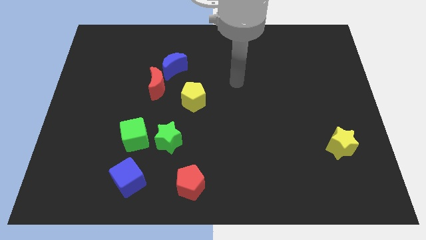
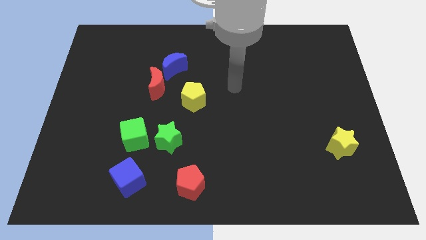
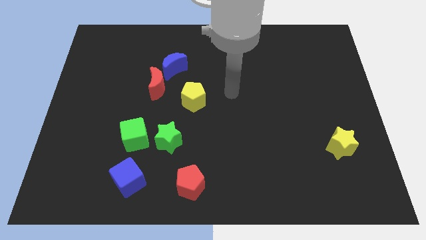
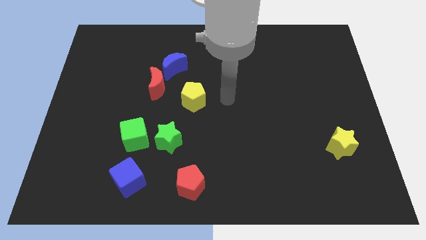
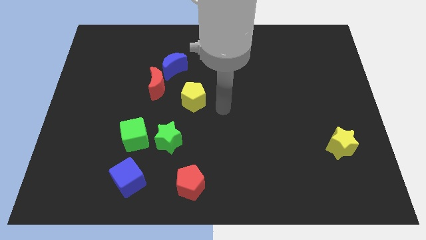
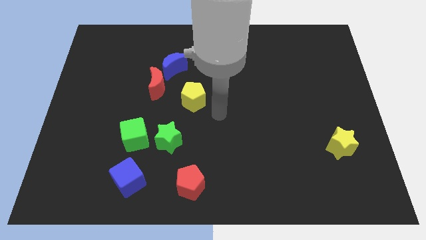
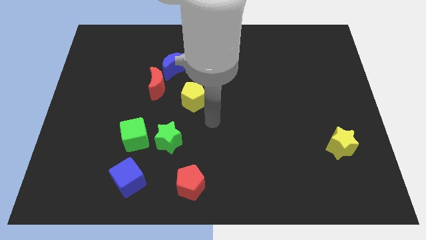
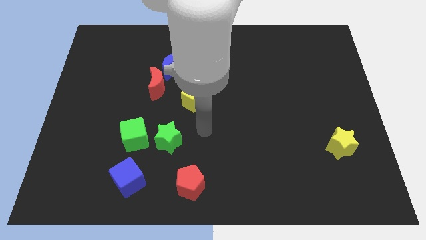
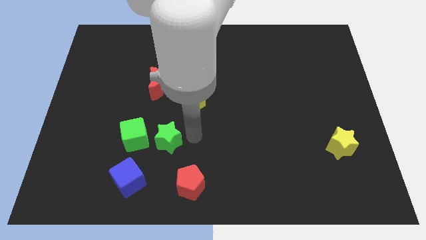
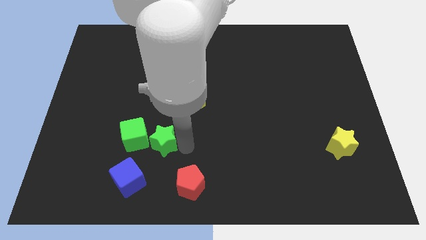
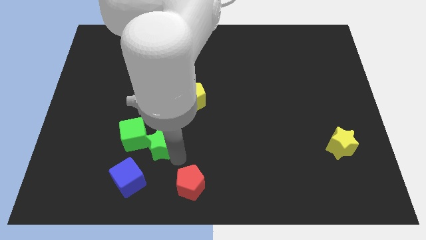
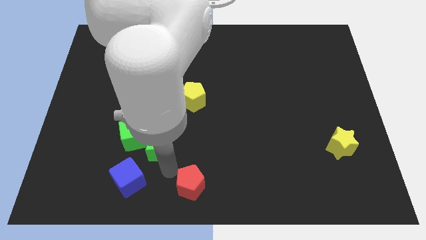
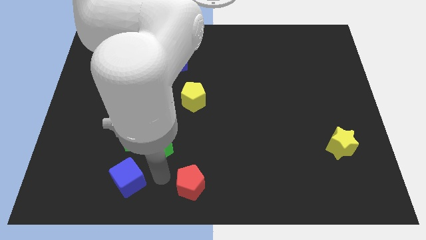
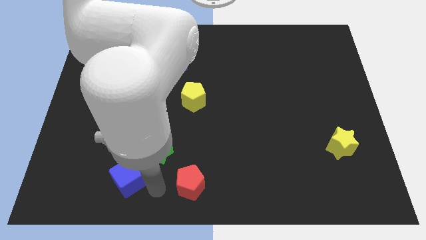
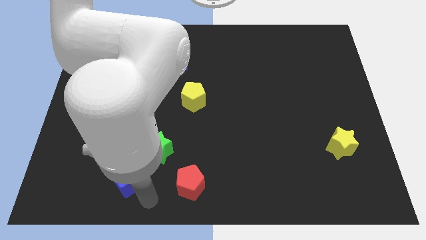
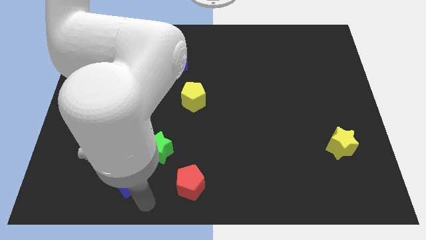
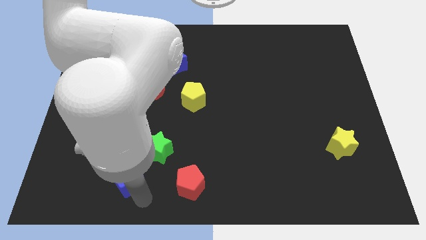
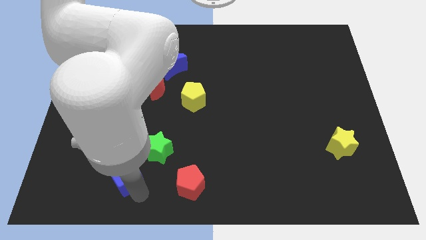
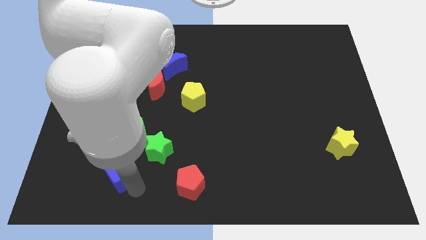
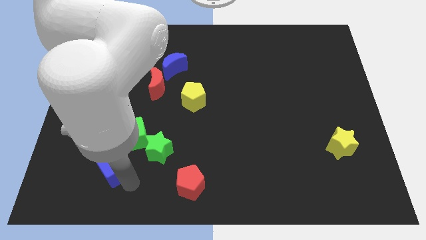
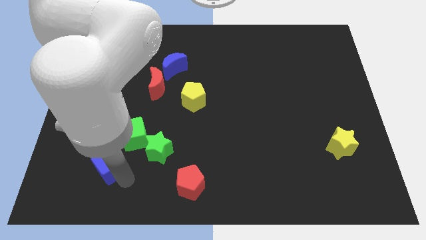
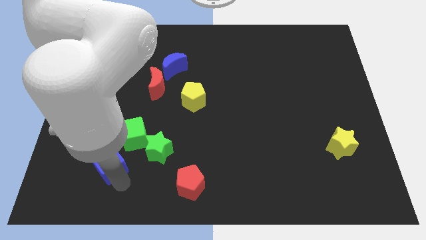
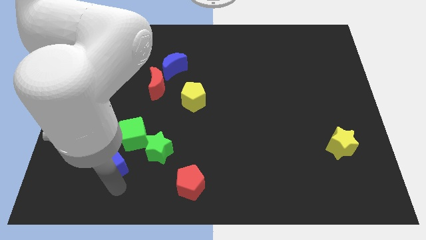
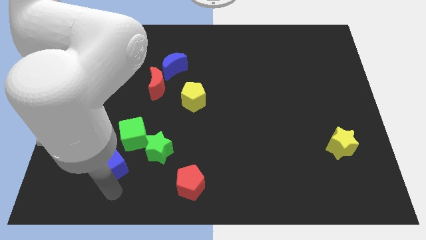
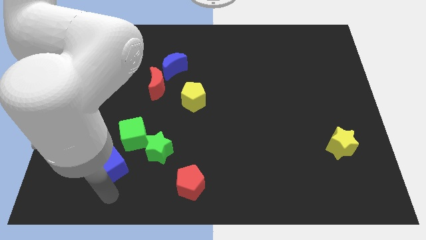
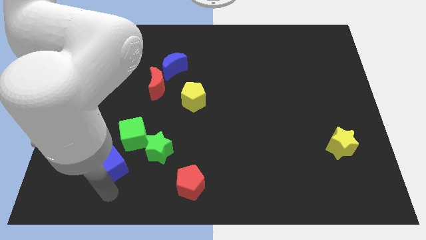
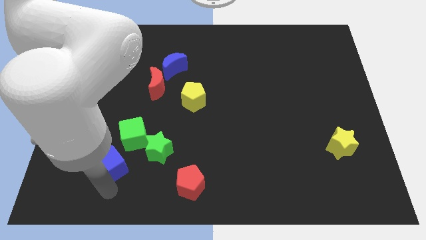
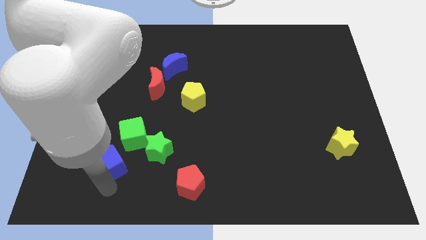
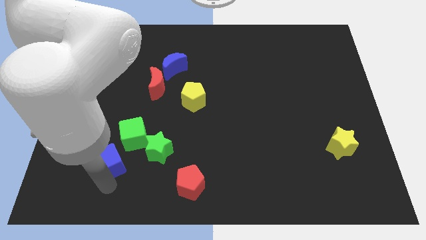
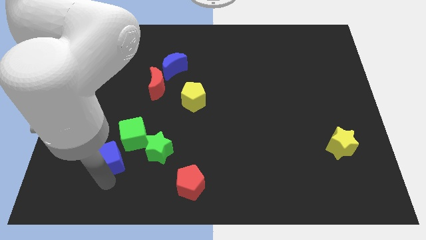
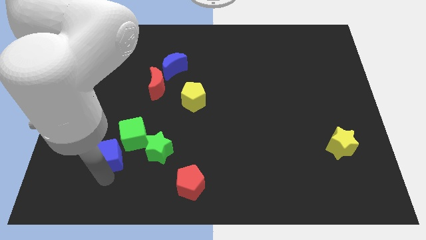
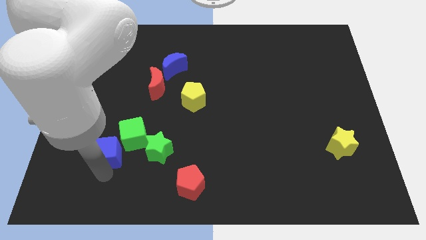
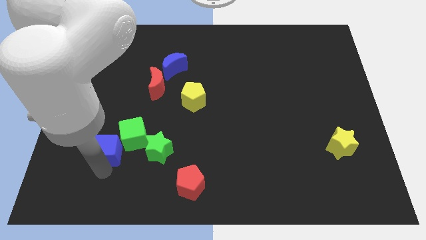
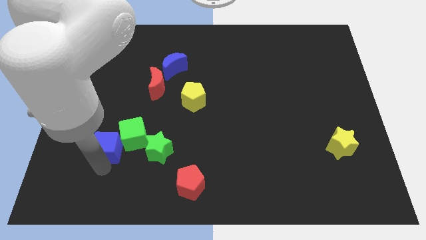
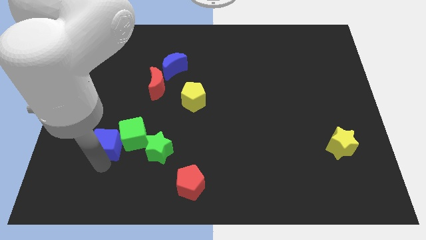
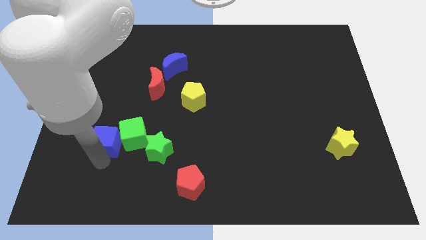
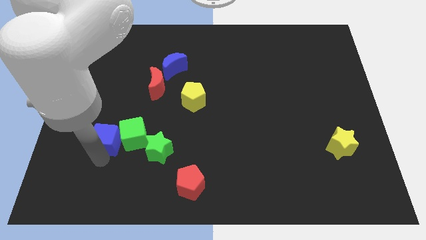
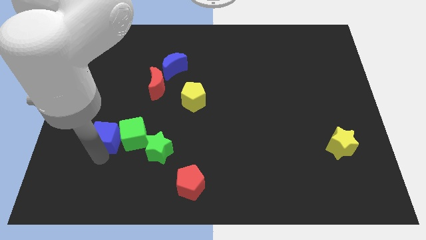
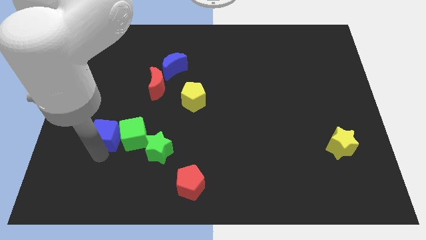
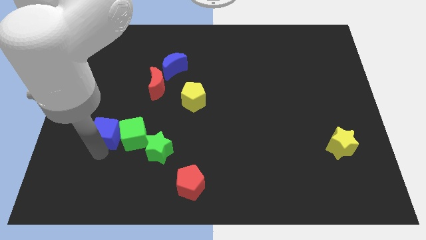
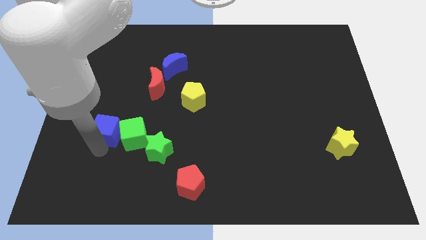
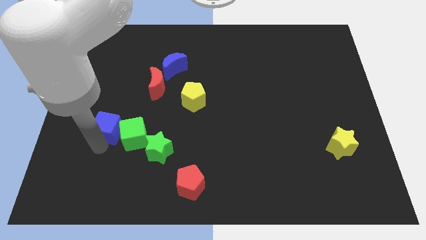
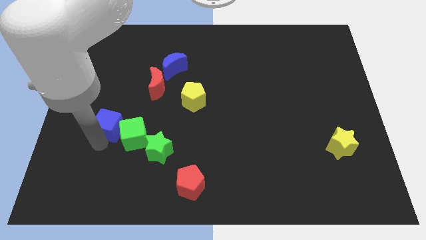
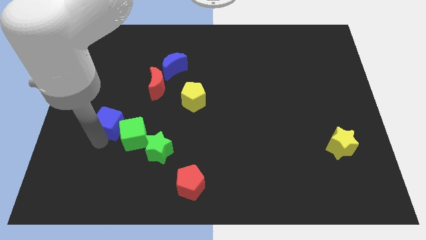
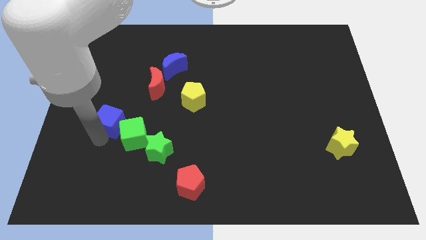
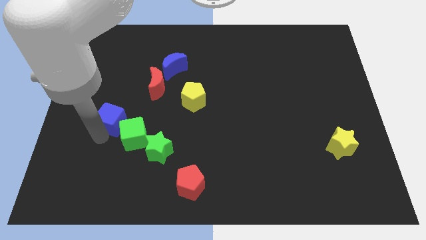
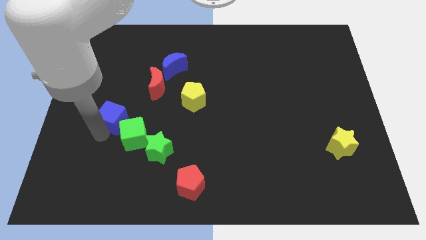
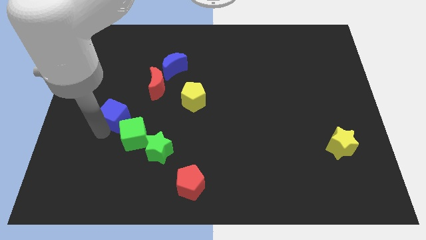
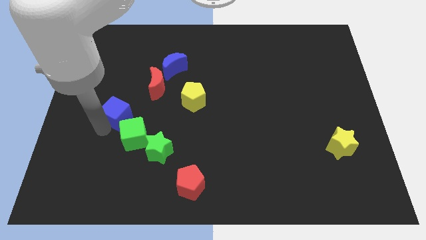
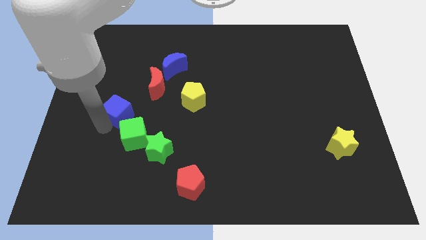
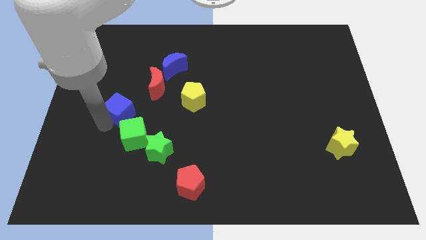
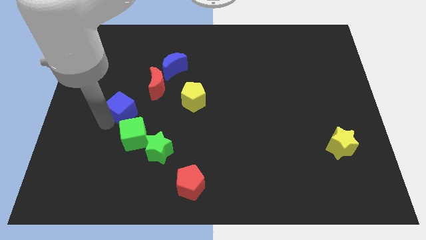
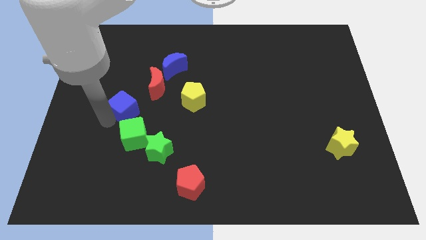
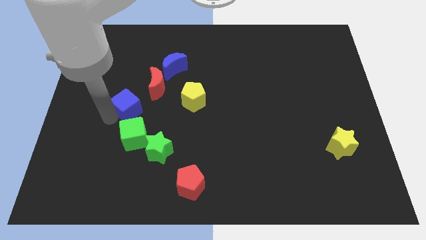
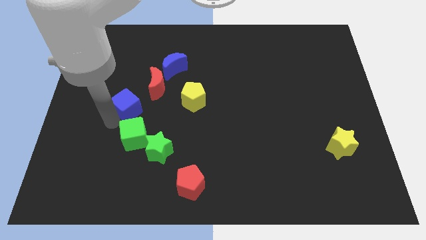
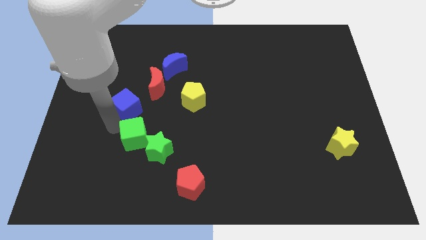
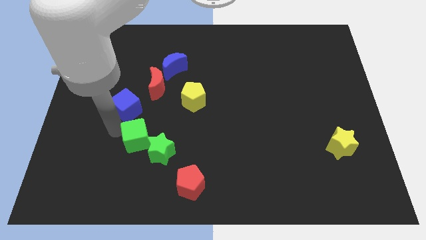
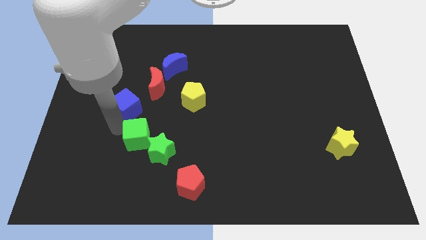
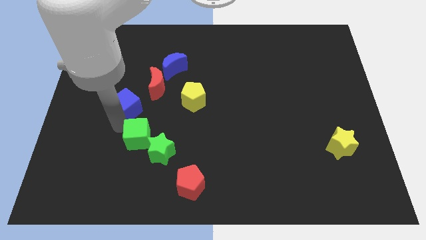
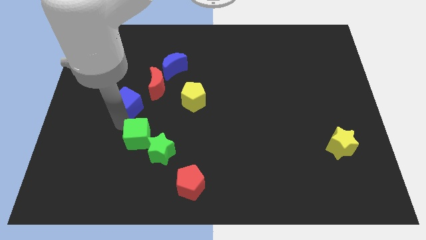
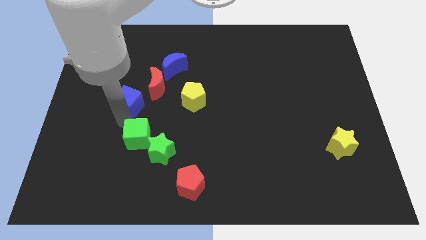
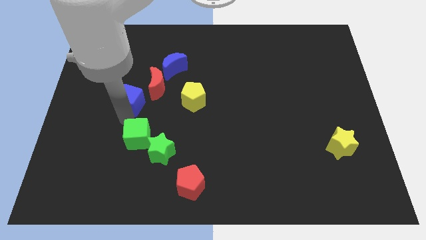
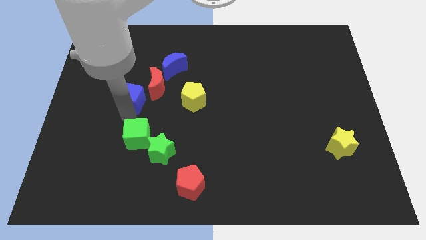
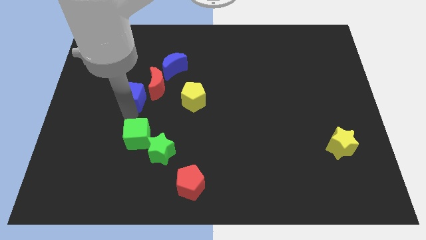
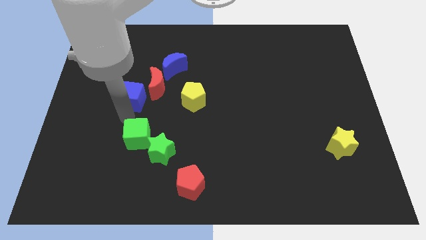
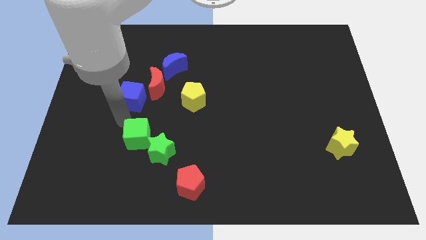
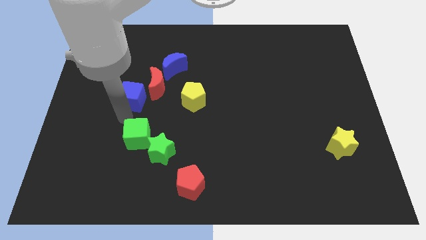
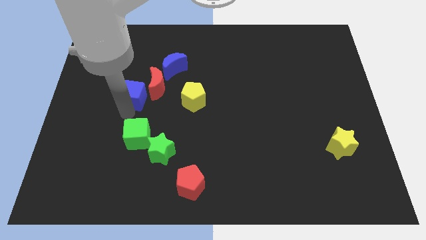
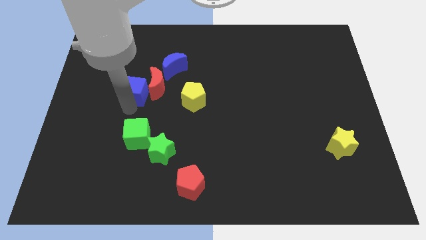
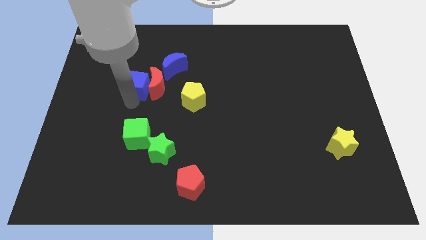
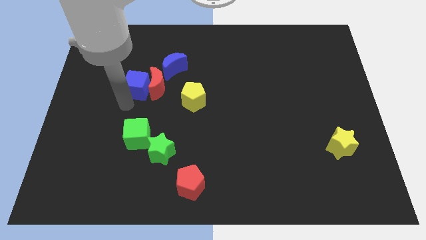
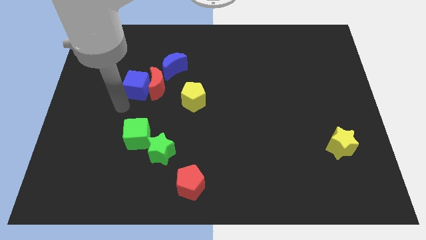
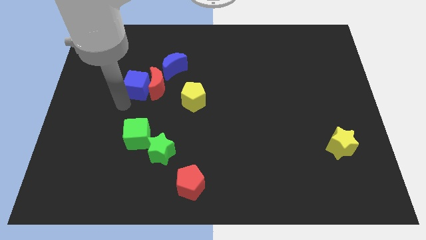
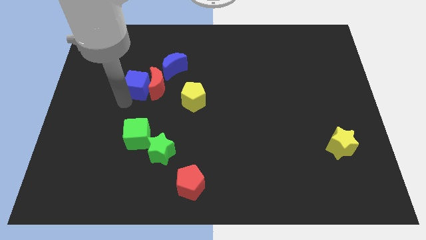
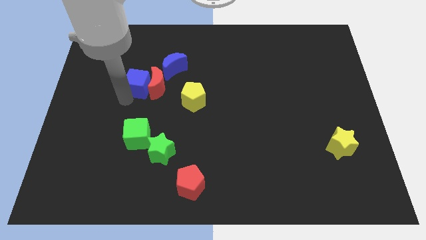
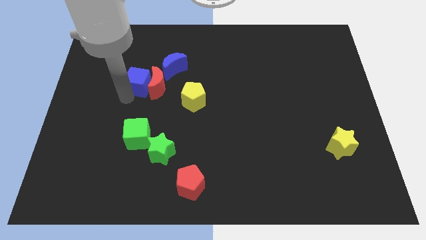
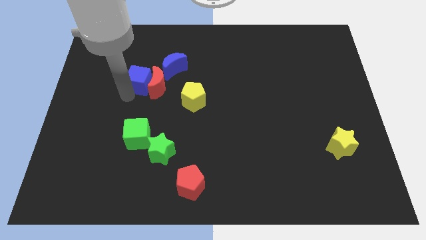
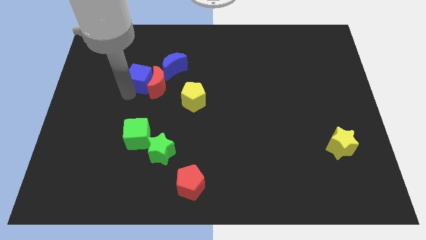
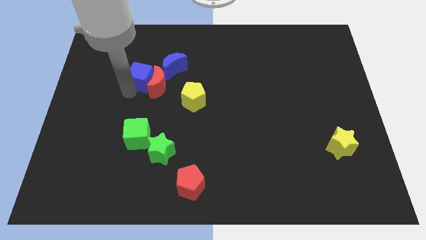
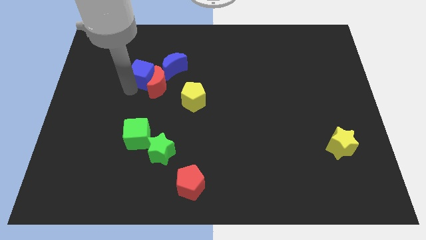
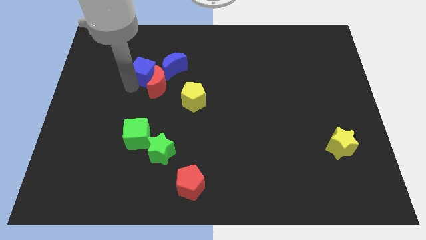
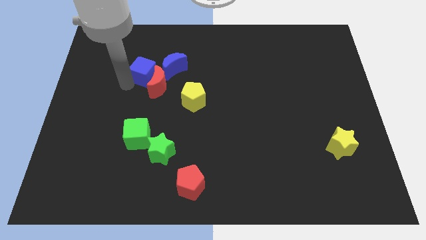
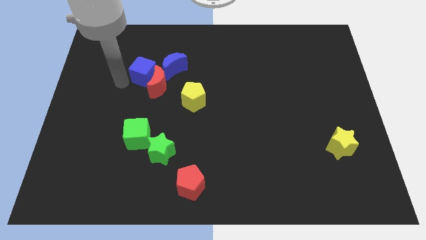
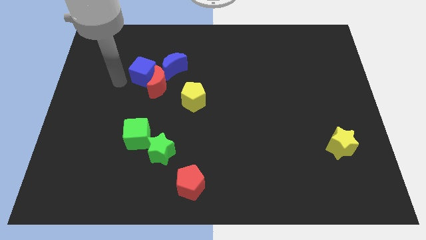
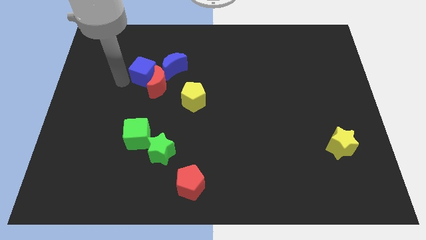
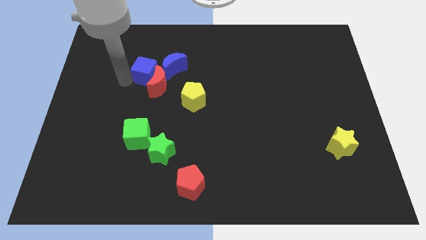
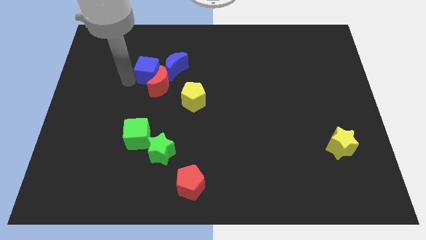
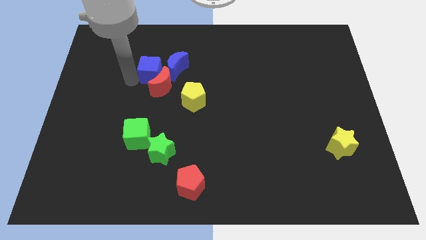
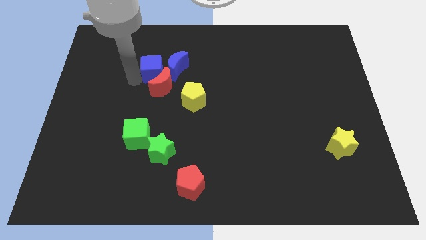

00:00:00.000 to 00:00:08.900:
push the blue cube close to the blue moon
